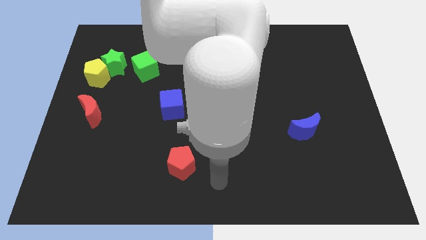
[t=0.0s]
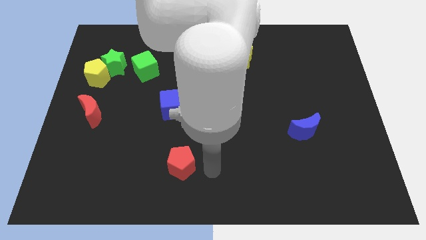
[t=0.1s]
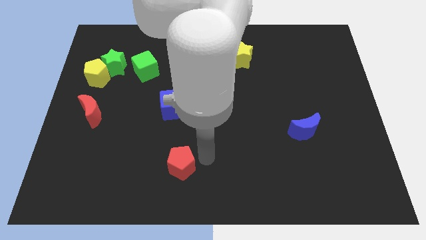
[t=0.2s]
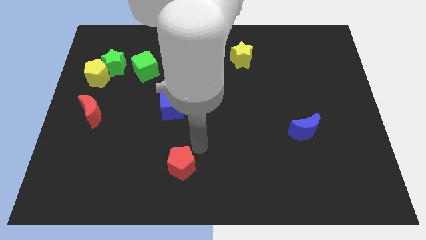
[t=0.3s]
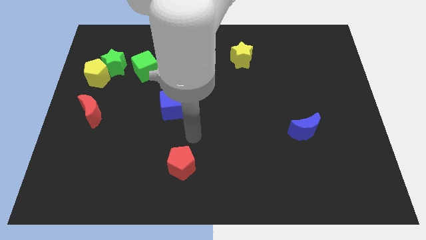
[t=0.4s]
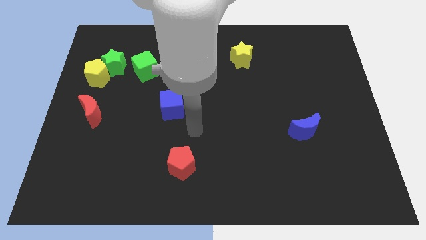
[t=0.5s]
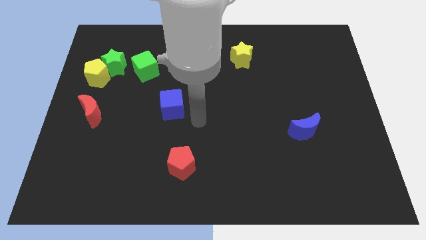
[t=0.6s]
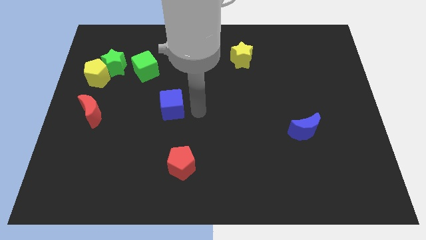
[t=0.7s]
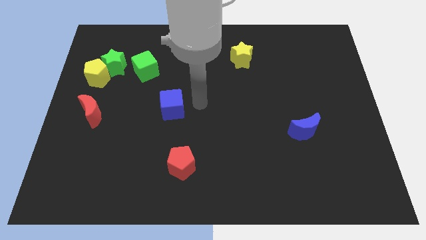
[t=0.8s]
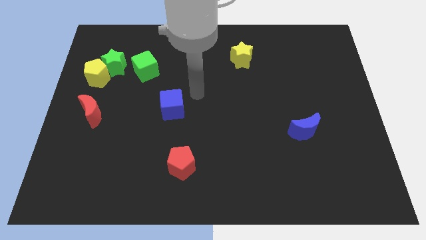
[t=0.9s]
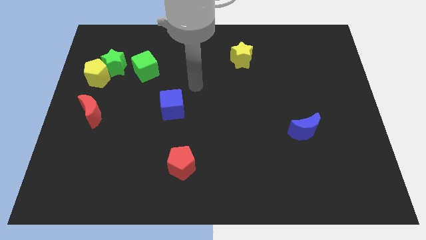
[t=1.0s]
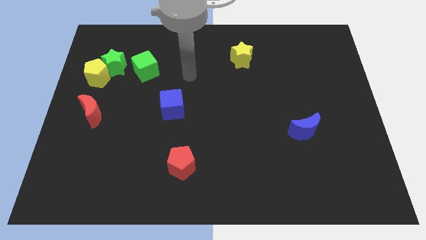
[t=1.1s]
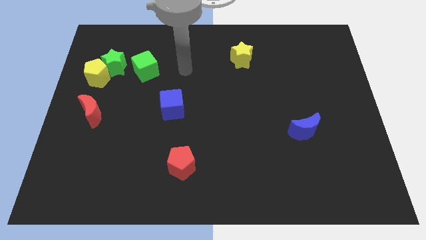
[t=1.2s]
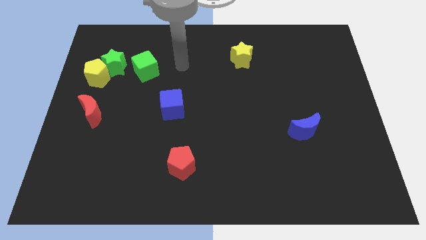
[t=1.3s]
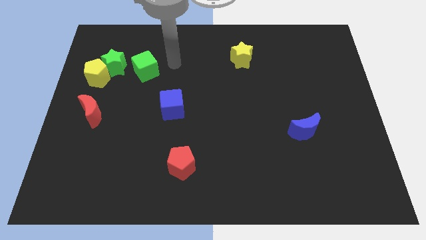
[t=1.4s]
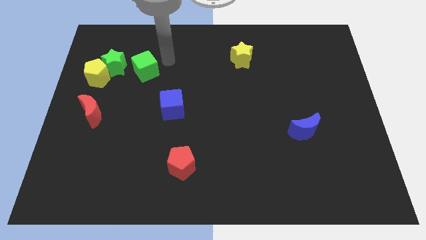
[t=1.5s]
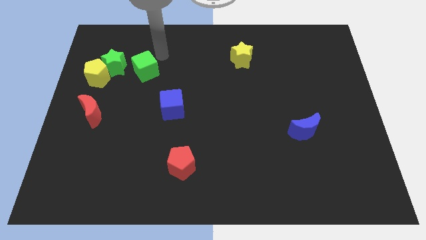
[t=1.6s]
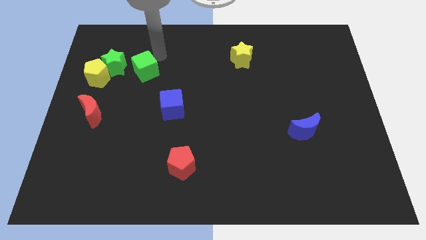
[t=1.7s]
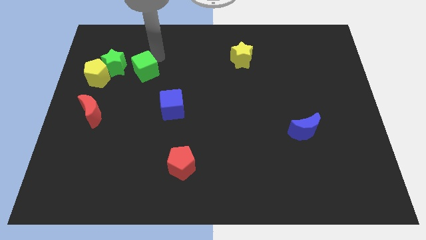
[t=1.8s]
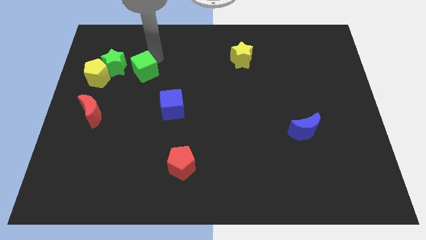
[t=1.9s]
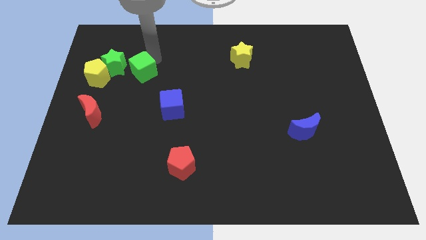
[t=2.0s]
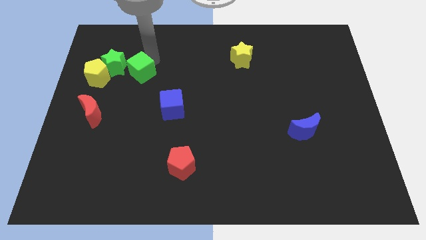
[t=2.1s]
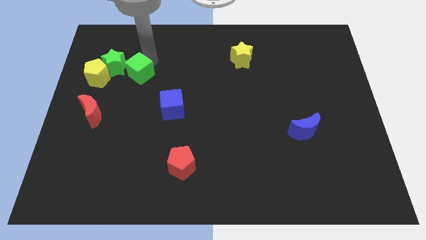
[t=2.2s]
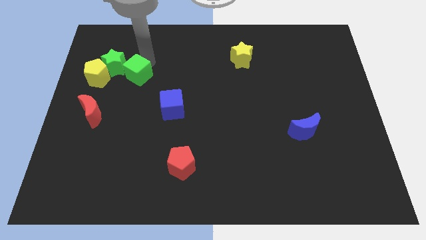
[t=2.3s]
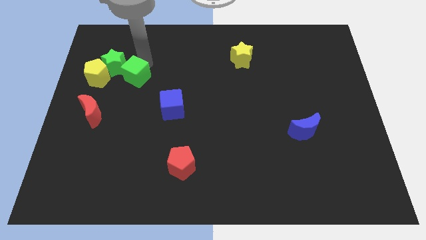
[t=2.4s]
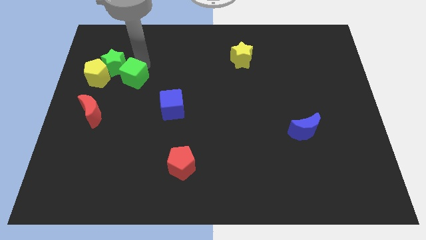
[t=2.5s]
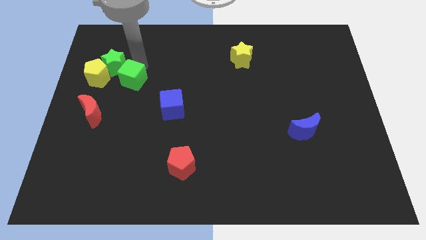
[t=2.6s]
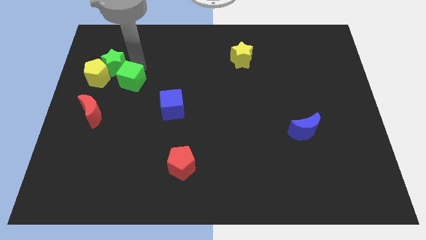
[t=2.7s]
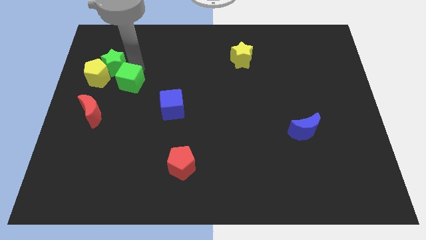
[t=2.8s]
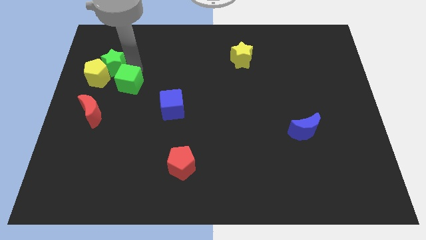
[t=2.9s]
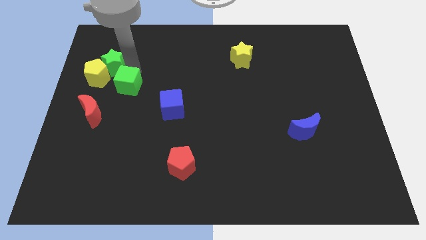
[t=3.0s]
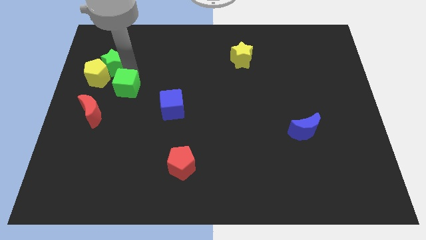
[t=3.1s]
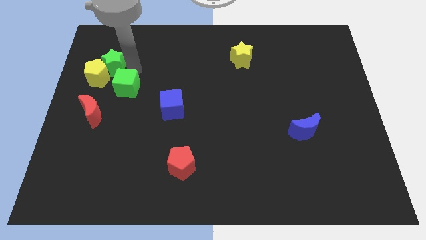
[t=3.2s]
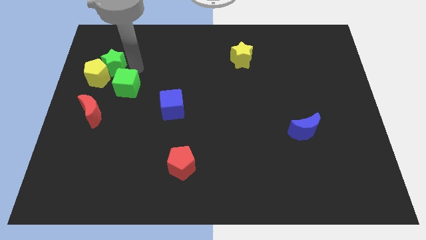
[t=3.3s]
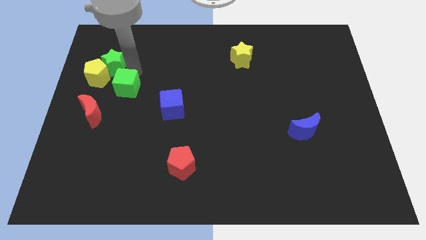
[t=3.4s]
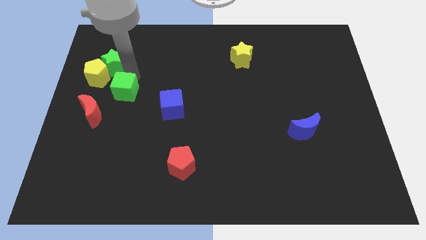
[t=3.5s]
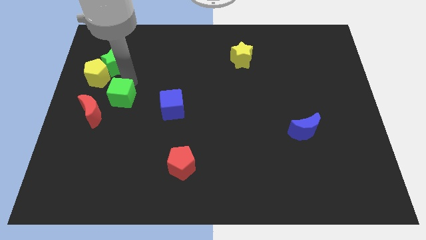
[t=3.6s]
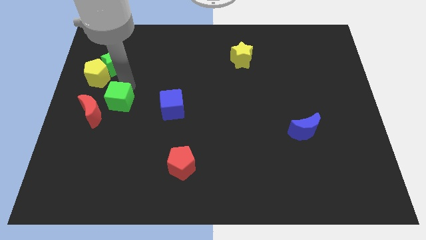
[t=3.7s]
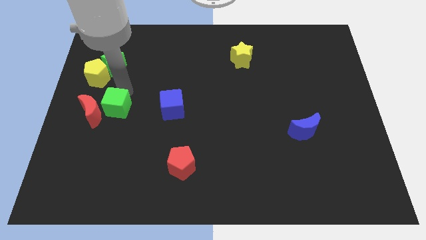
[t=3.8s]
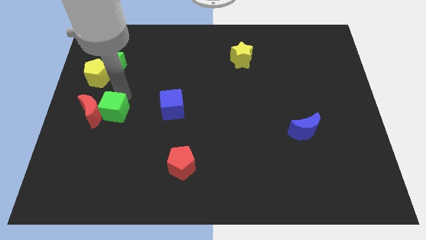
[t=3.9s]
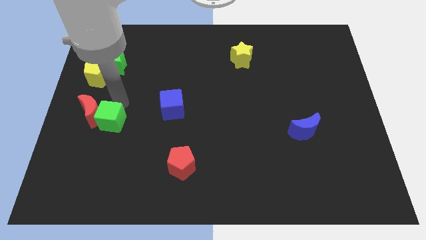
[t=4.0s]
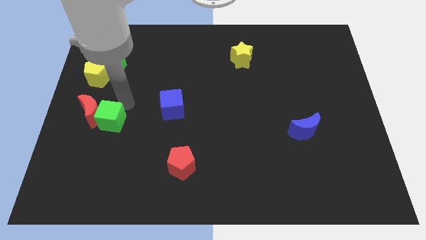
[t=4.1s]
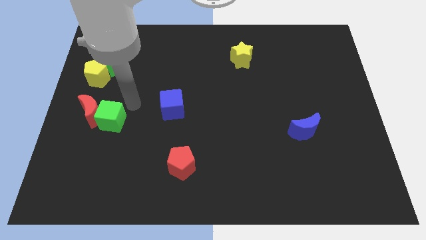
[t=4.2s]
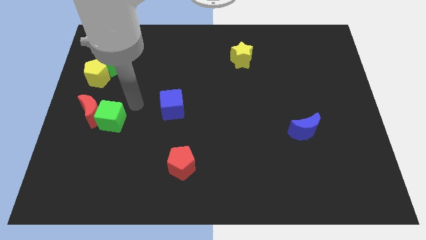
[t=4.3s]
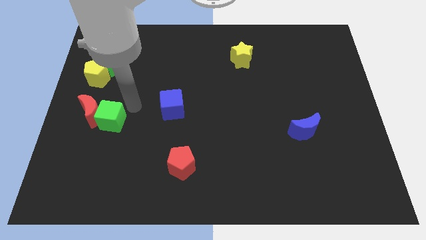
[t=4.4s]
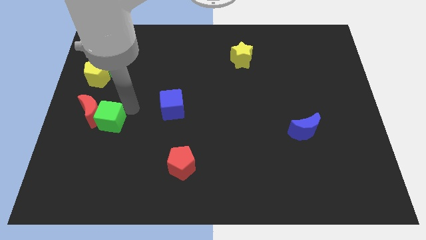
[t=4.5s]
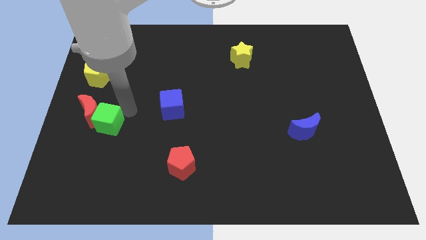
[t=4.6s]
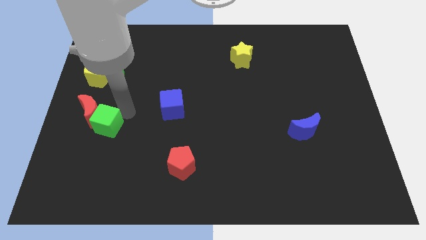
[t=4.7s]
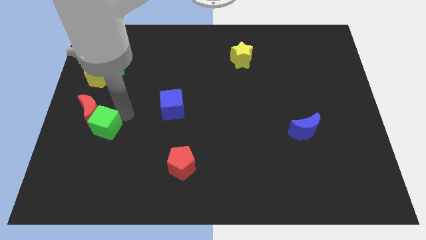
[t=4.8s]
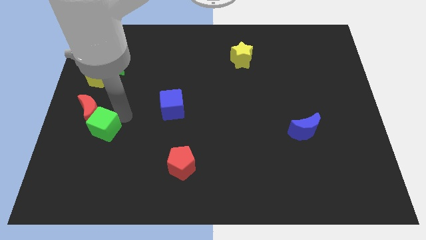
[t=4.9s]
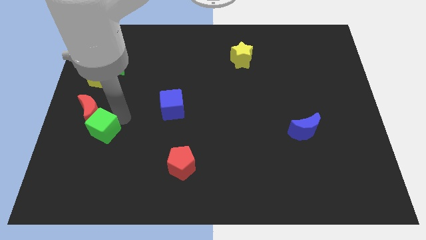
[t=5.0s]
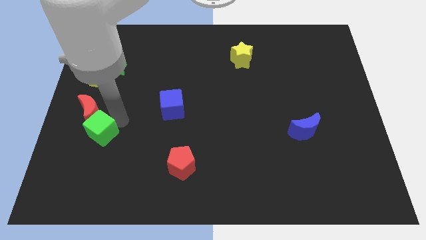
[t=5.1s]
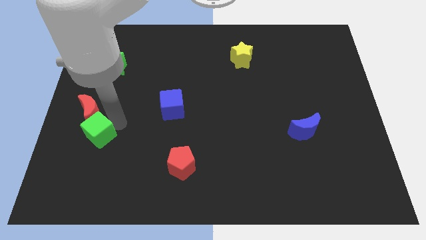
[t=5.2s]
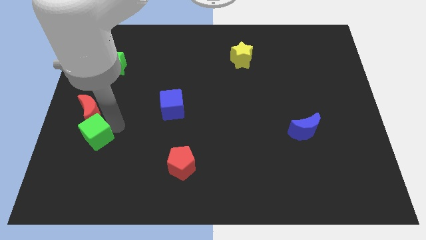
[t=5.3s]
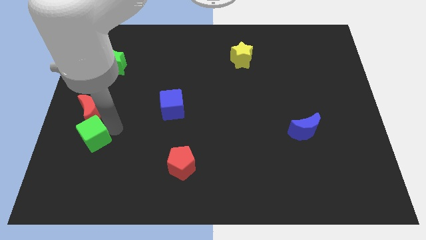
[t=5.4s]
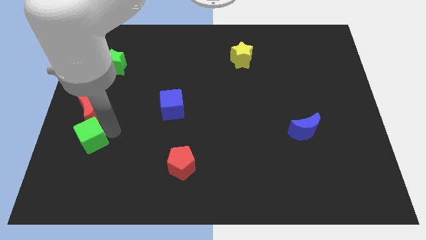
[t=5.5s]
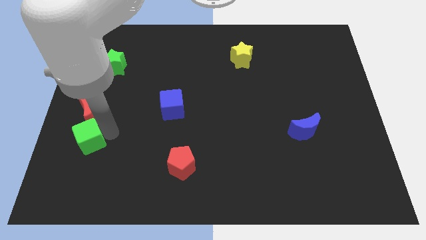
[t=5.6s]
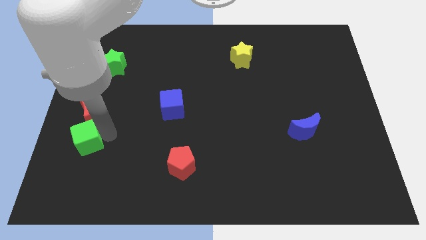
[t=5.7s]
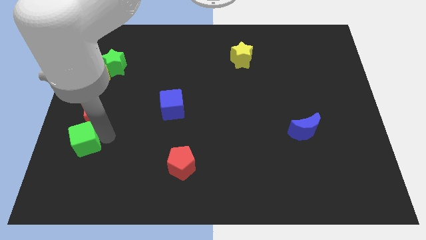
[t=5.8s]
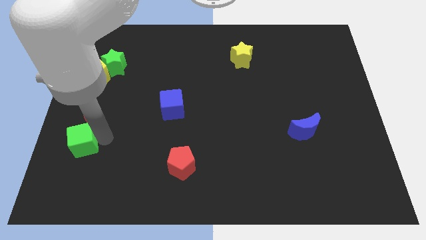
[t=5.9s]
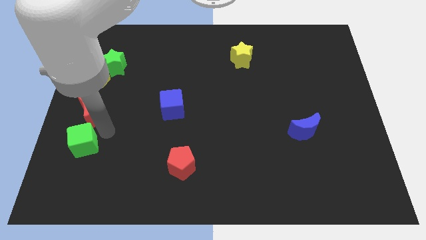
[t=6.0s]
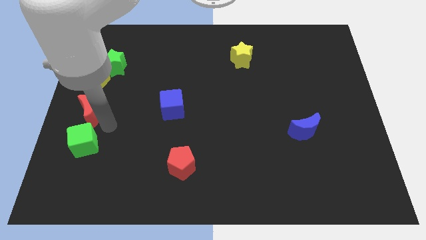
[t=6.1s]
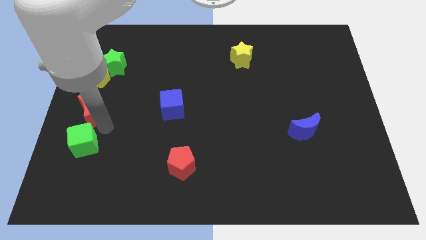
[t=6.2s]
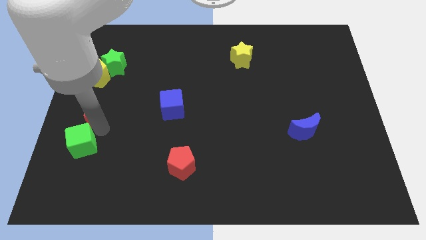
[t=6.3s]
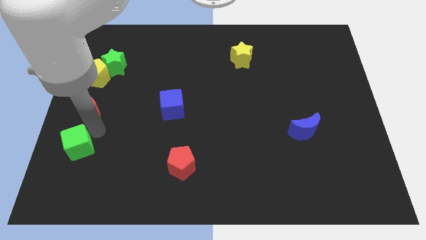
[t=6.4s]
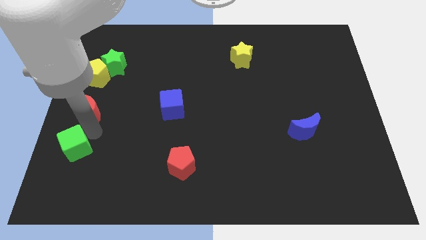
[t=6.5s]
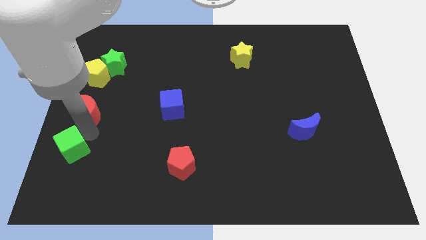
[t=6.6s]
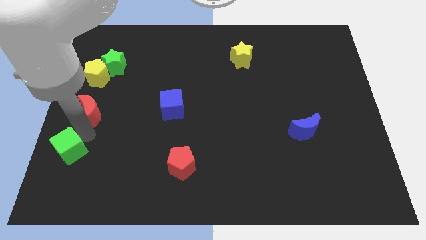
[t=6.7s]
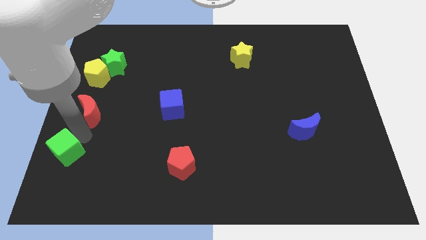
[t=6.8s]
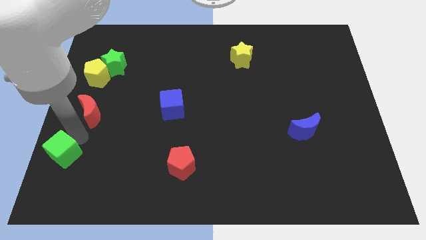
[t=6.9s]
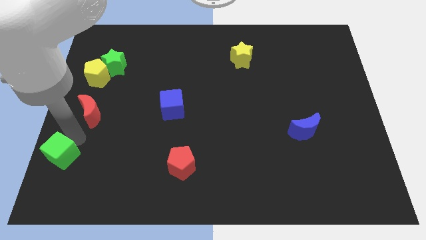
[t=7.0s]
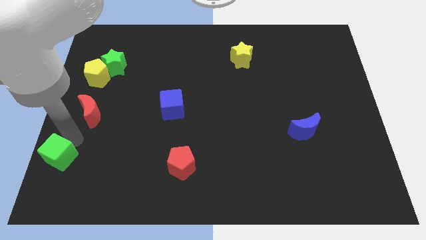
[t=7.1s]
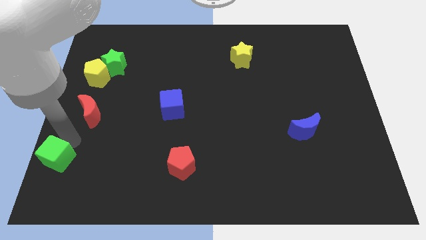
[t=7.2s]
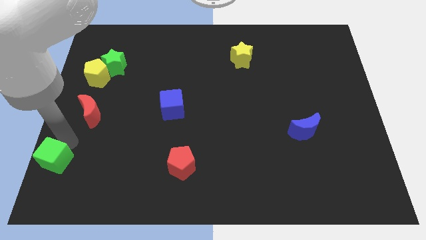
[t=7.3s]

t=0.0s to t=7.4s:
put the green cube to the lower left corner
